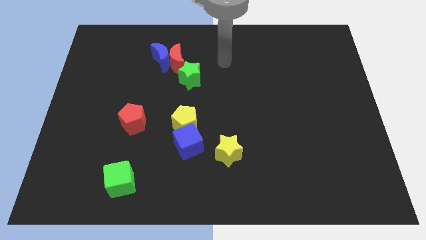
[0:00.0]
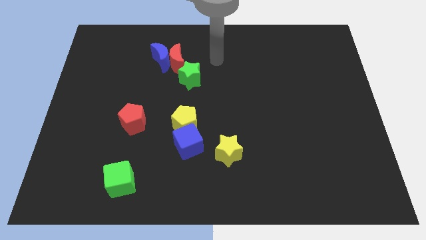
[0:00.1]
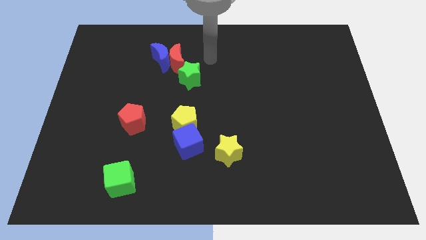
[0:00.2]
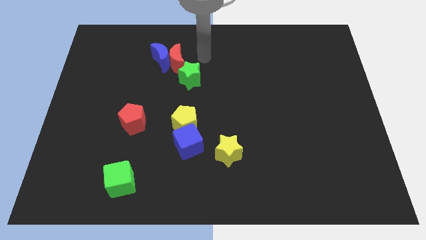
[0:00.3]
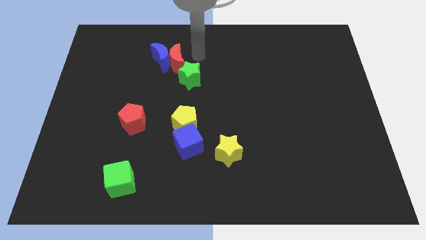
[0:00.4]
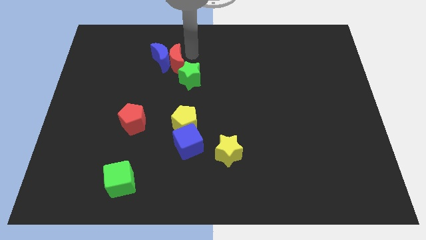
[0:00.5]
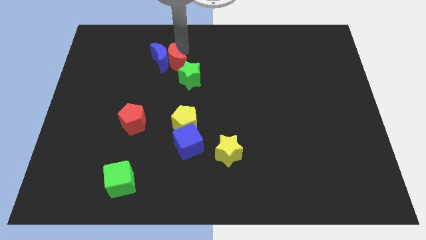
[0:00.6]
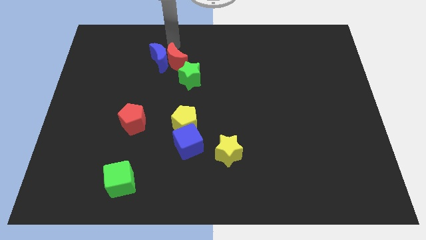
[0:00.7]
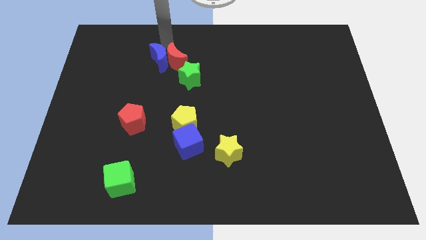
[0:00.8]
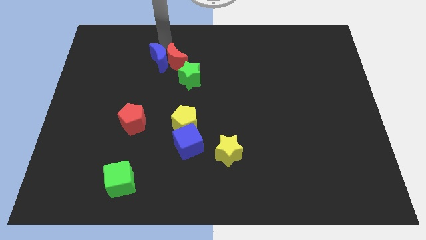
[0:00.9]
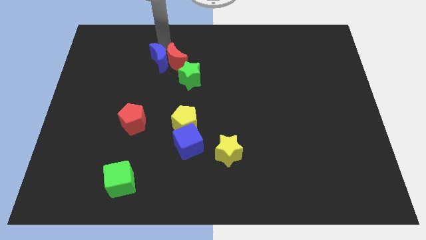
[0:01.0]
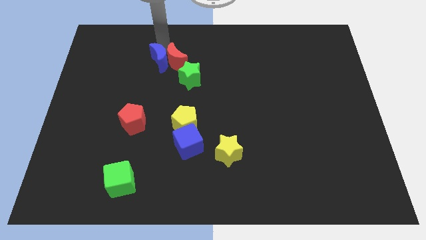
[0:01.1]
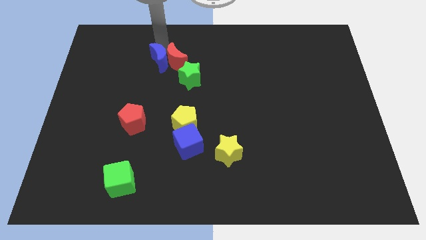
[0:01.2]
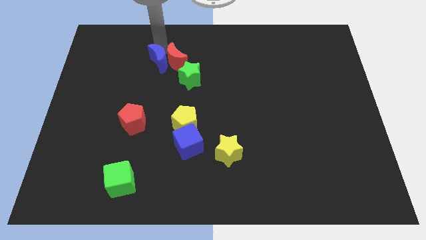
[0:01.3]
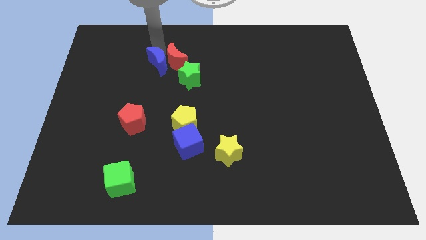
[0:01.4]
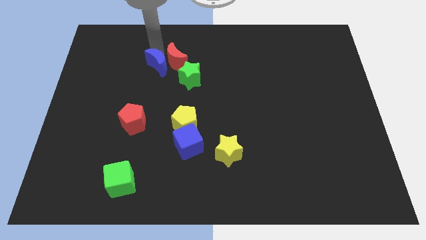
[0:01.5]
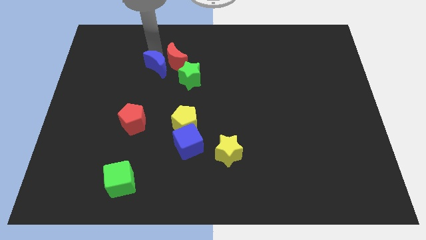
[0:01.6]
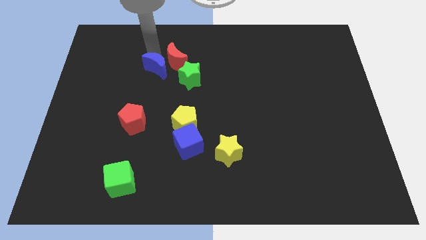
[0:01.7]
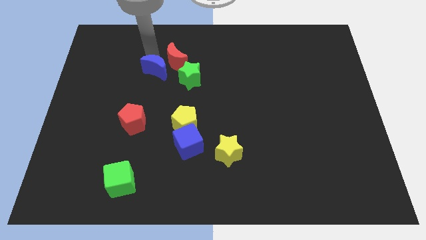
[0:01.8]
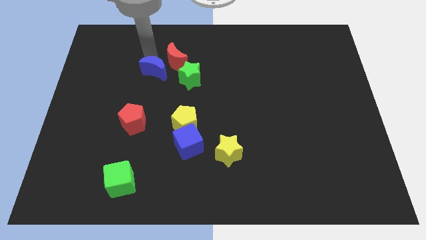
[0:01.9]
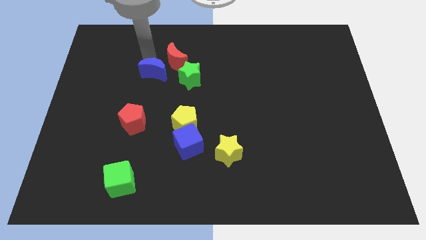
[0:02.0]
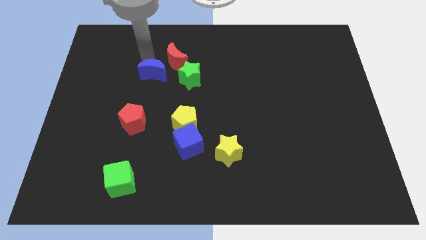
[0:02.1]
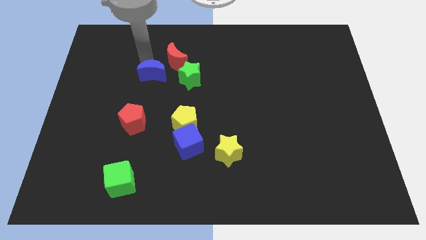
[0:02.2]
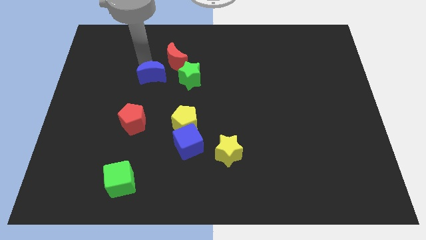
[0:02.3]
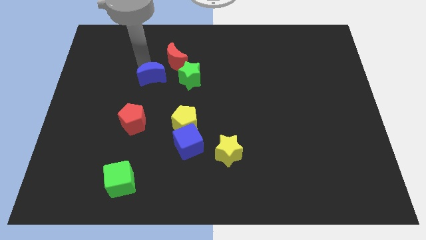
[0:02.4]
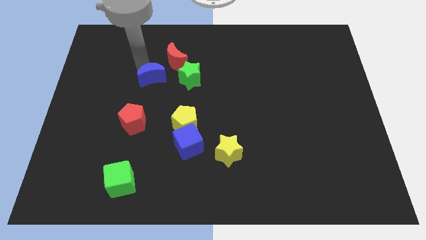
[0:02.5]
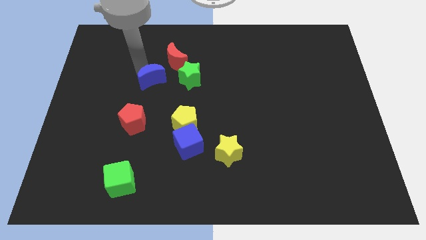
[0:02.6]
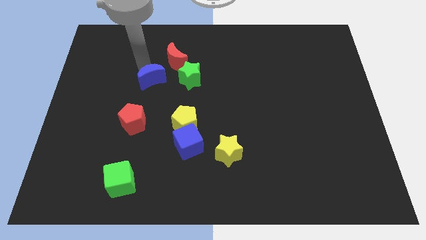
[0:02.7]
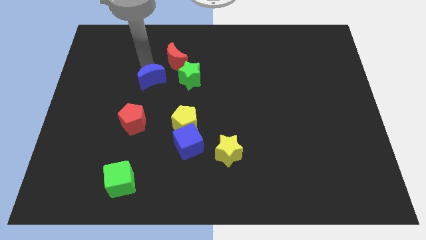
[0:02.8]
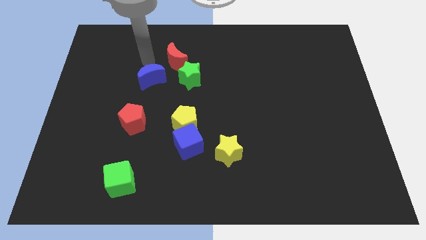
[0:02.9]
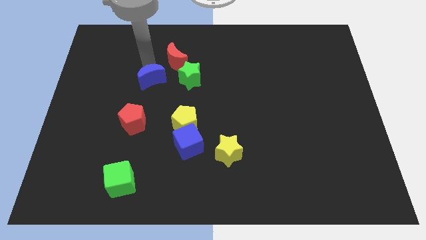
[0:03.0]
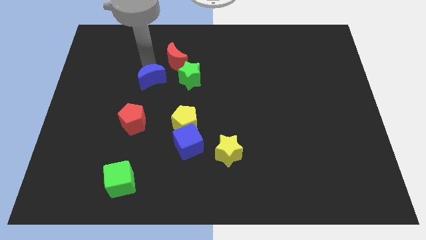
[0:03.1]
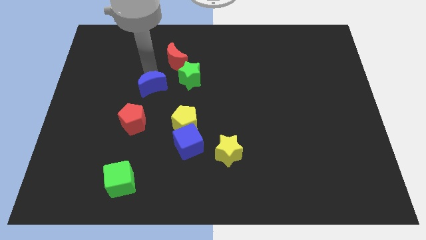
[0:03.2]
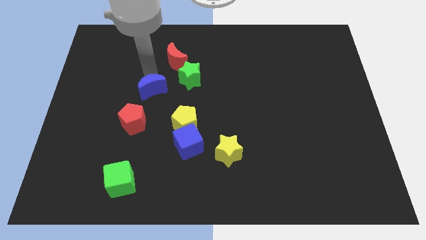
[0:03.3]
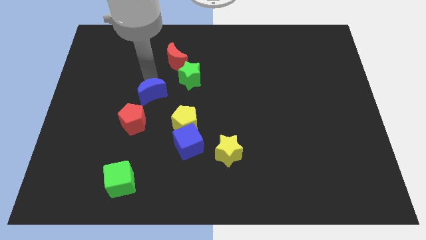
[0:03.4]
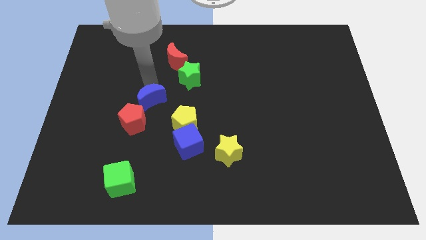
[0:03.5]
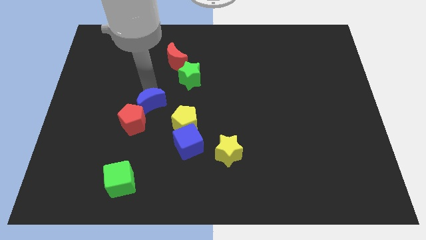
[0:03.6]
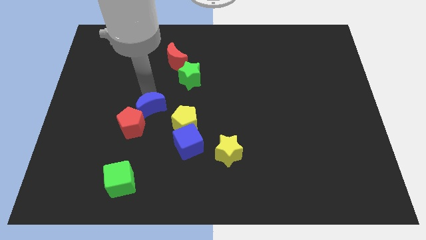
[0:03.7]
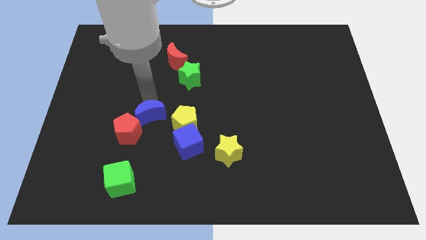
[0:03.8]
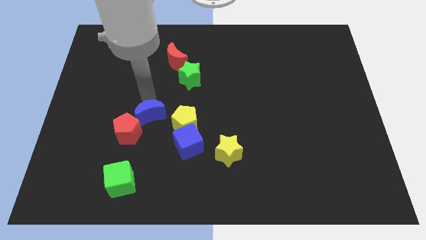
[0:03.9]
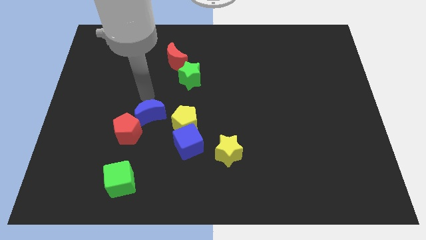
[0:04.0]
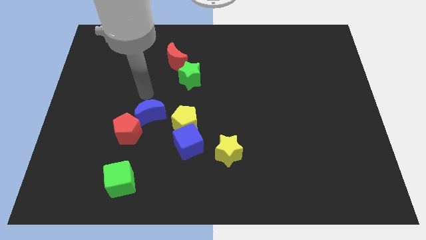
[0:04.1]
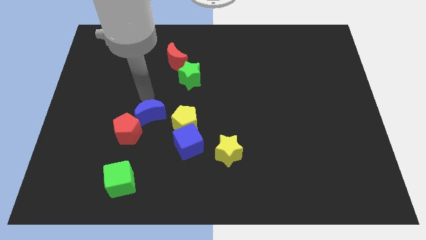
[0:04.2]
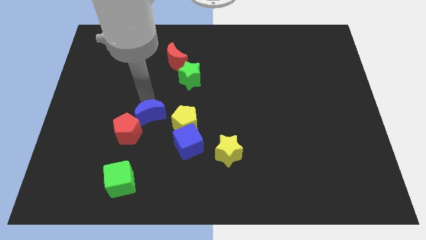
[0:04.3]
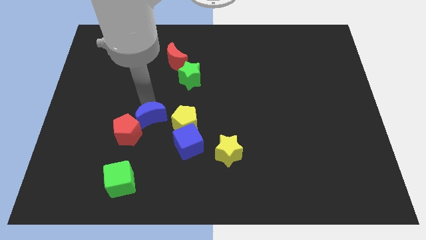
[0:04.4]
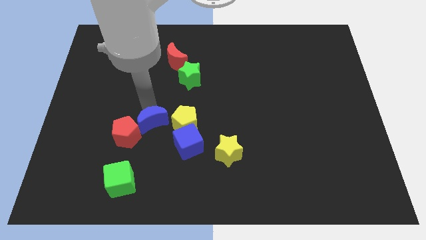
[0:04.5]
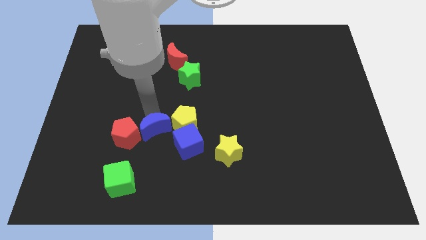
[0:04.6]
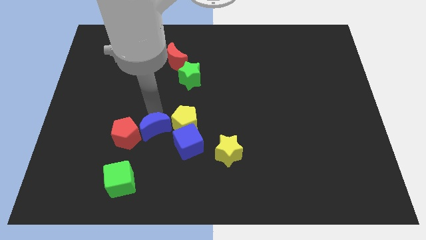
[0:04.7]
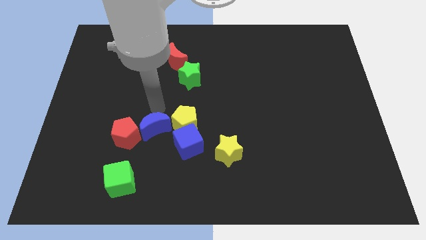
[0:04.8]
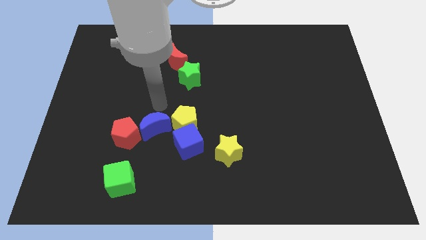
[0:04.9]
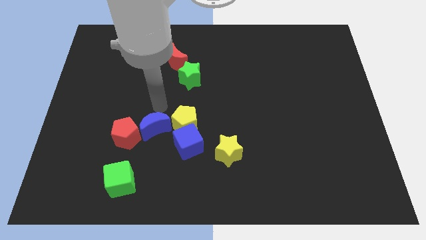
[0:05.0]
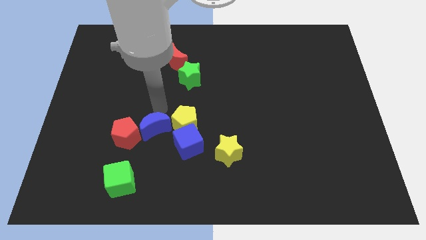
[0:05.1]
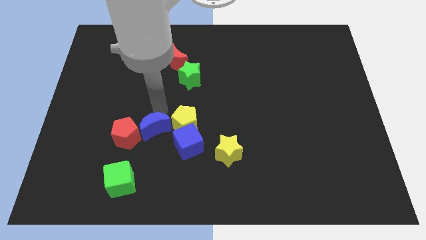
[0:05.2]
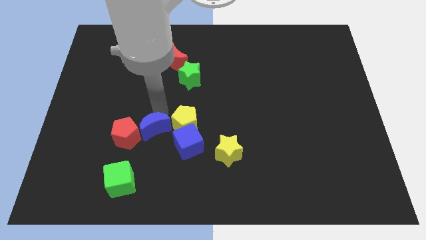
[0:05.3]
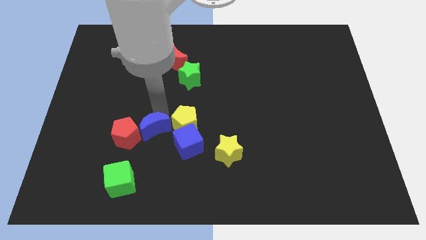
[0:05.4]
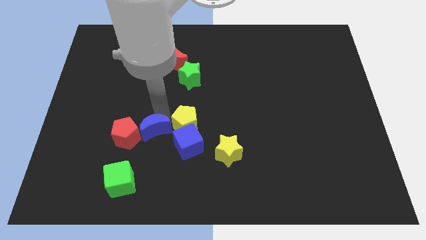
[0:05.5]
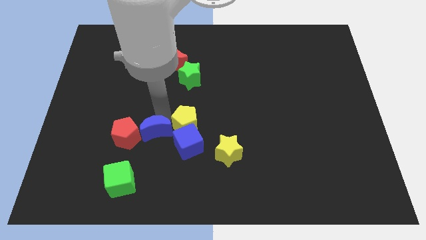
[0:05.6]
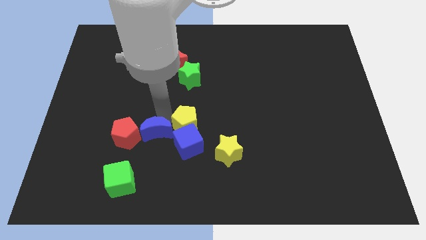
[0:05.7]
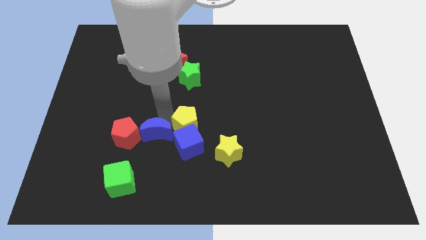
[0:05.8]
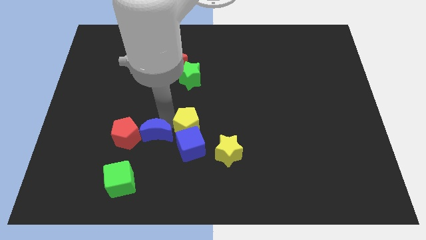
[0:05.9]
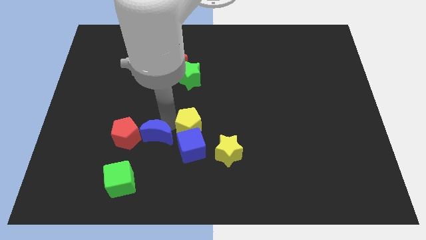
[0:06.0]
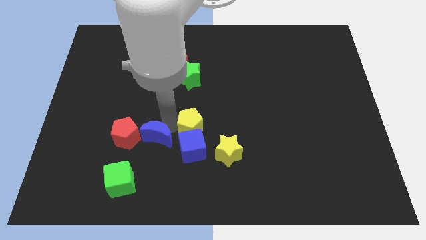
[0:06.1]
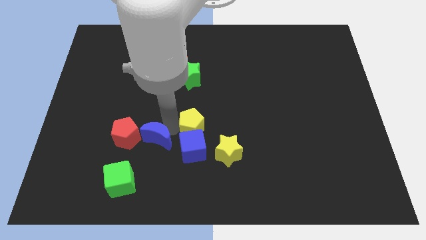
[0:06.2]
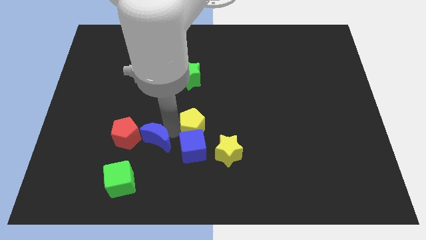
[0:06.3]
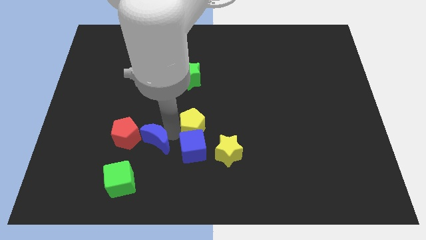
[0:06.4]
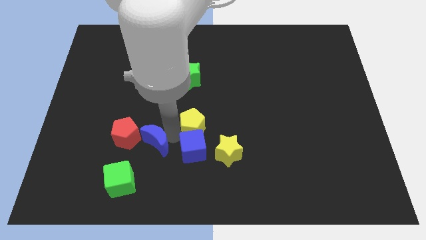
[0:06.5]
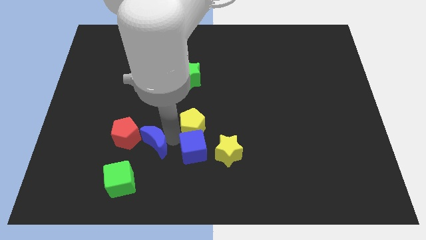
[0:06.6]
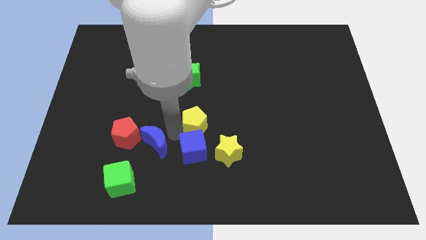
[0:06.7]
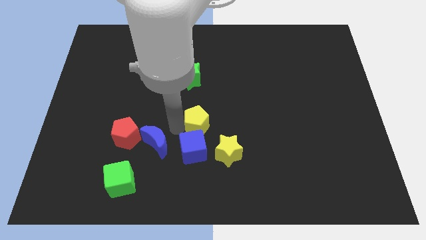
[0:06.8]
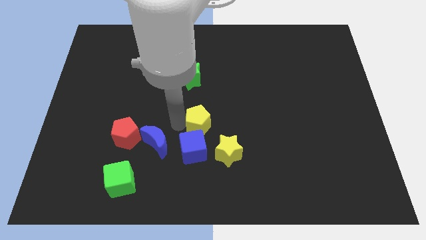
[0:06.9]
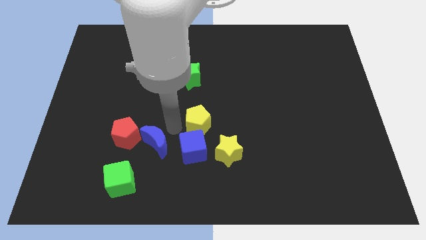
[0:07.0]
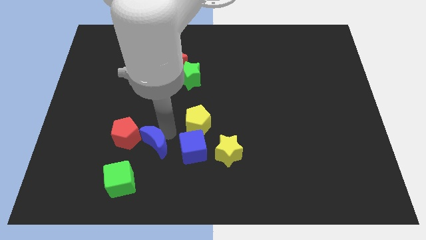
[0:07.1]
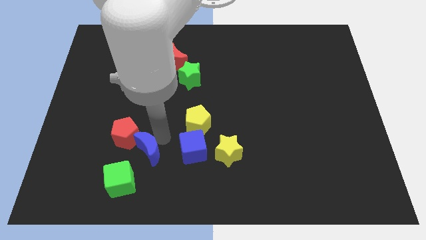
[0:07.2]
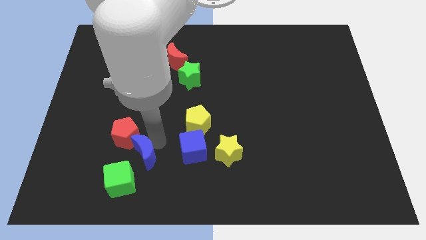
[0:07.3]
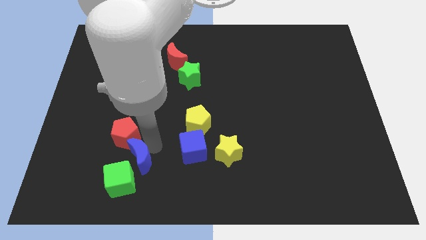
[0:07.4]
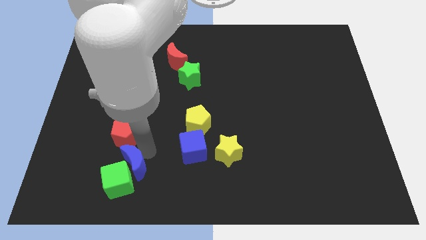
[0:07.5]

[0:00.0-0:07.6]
put the blue moon towards the green cube
